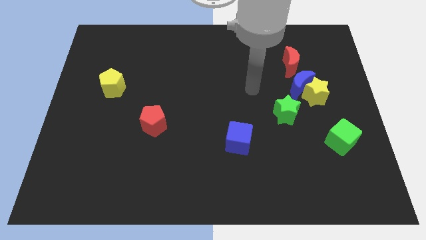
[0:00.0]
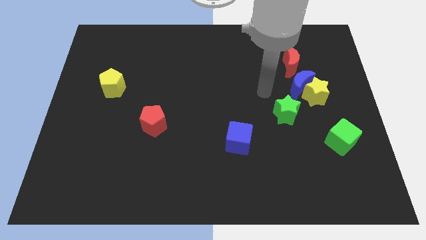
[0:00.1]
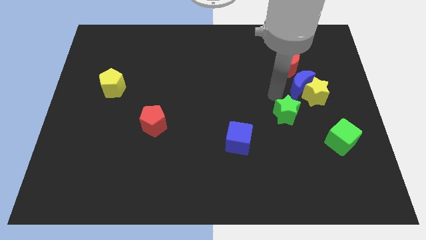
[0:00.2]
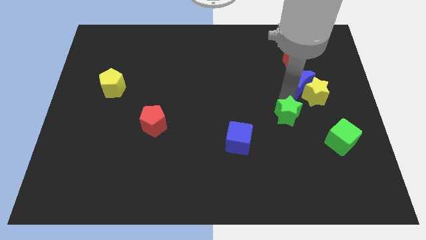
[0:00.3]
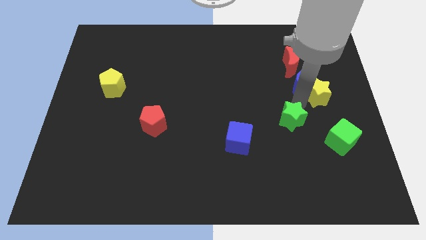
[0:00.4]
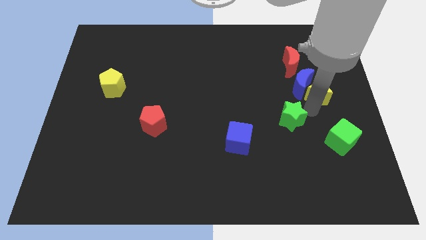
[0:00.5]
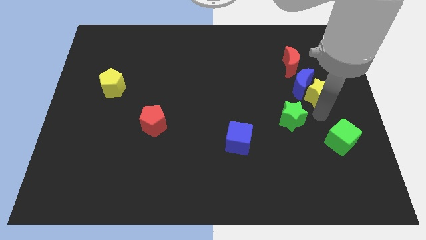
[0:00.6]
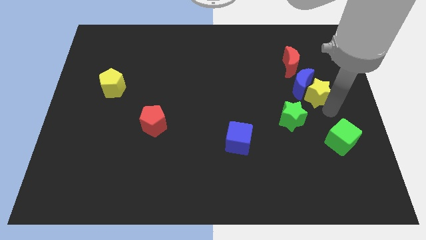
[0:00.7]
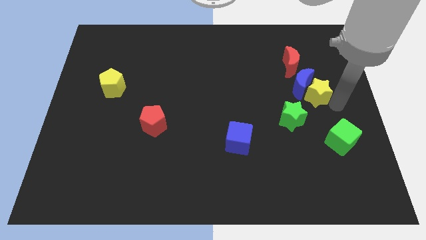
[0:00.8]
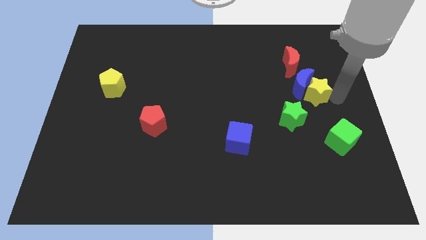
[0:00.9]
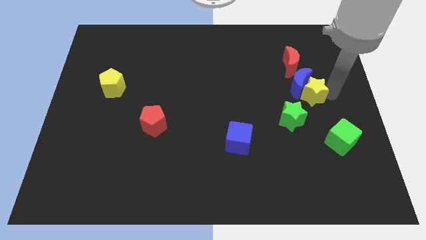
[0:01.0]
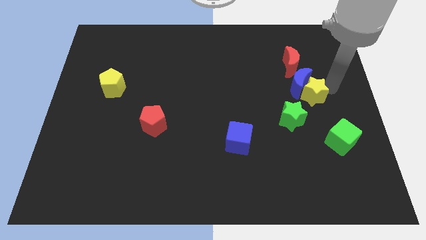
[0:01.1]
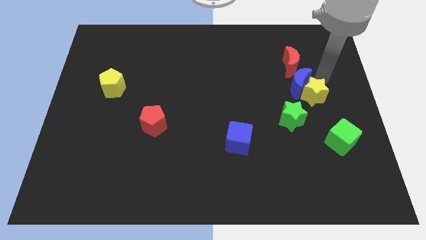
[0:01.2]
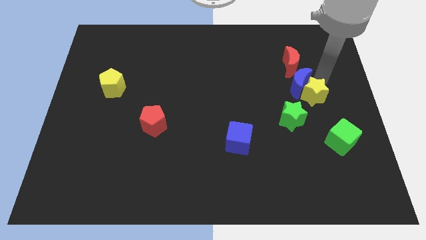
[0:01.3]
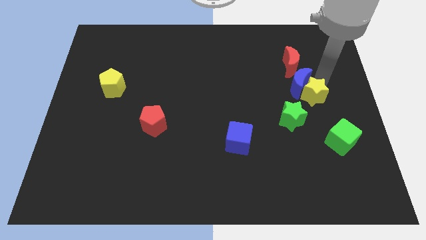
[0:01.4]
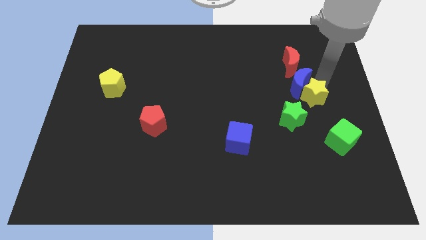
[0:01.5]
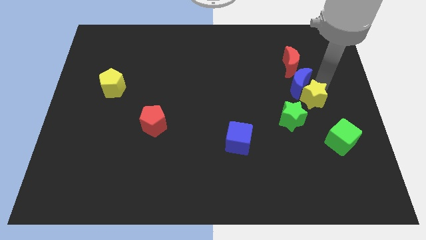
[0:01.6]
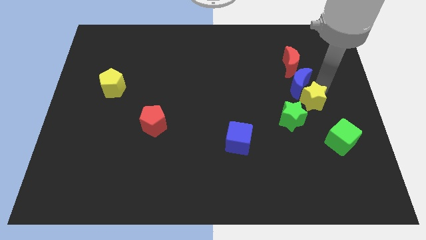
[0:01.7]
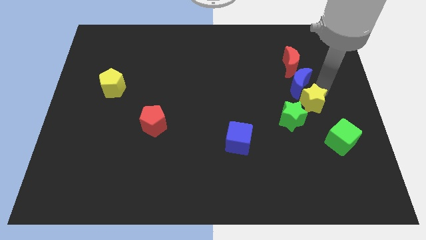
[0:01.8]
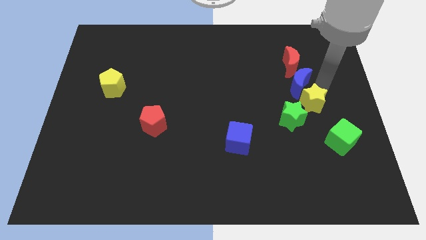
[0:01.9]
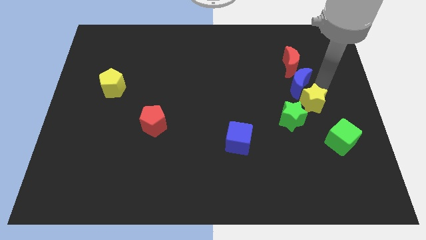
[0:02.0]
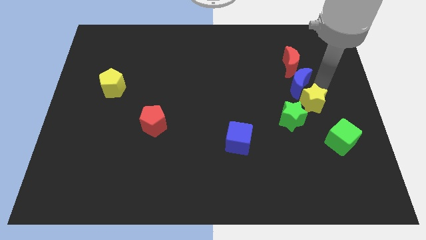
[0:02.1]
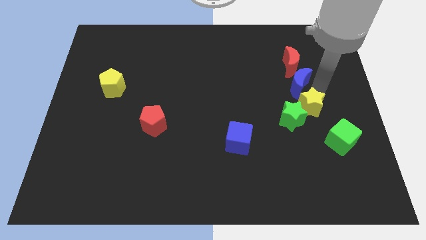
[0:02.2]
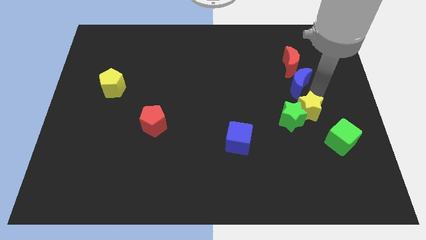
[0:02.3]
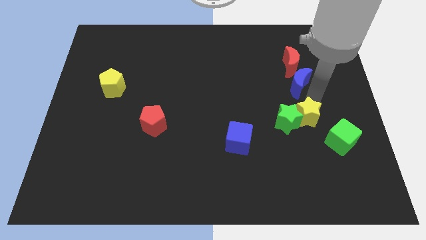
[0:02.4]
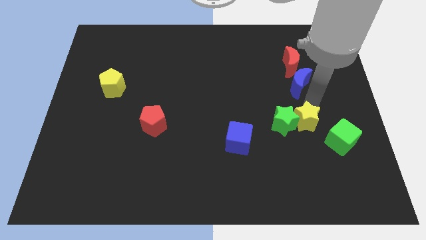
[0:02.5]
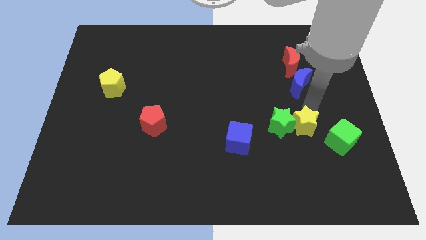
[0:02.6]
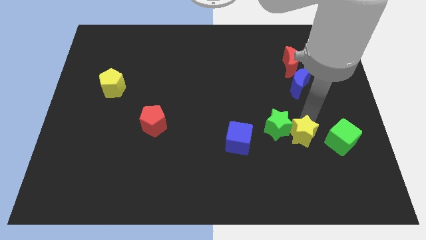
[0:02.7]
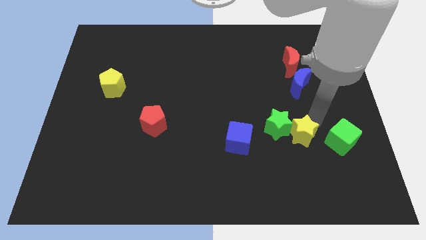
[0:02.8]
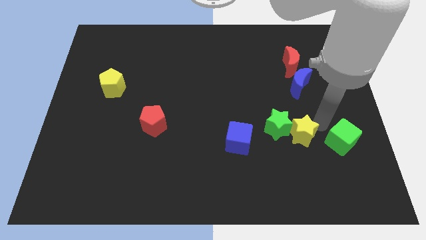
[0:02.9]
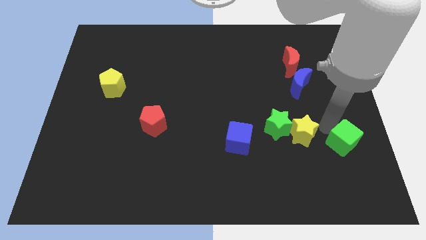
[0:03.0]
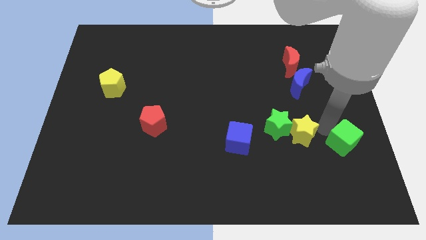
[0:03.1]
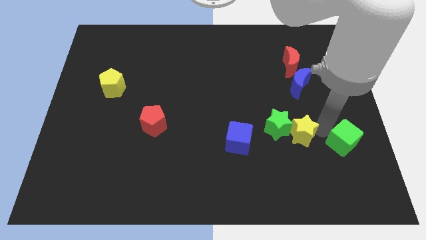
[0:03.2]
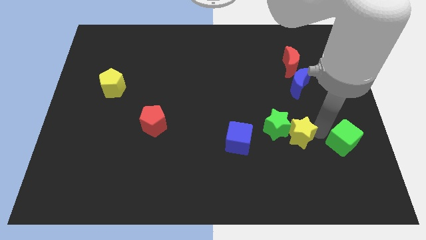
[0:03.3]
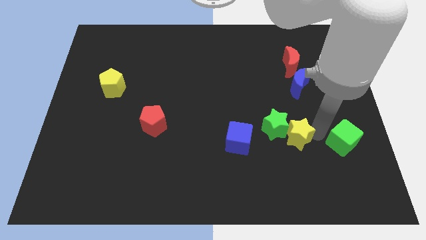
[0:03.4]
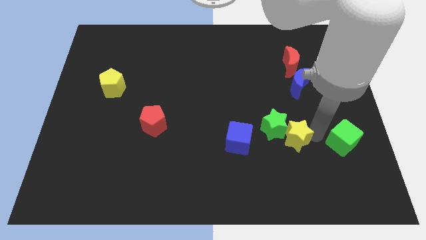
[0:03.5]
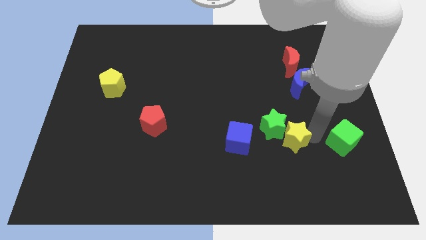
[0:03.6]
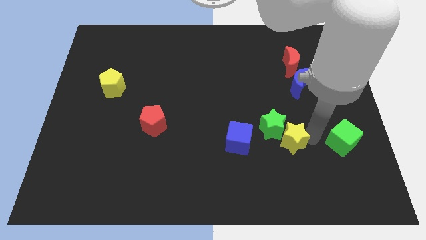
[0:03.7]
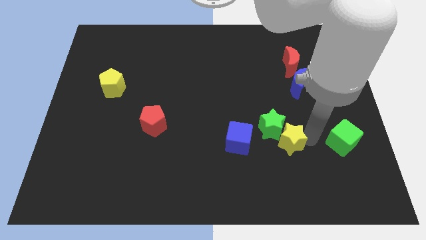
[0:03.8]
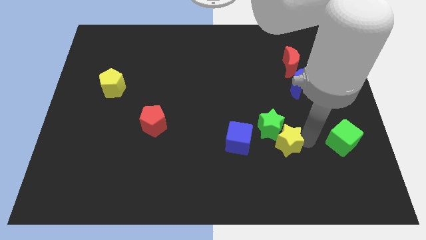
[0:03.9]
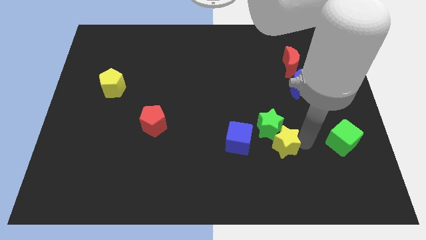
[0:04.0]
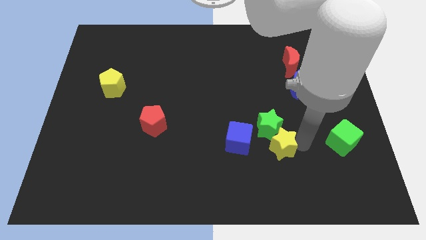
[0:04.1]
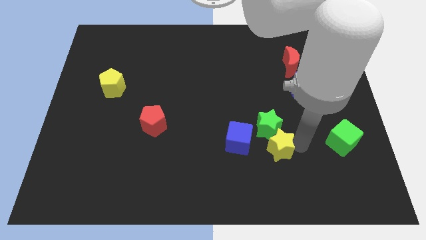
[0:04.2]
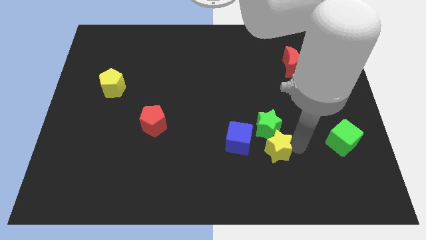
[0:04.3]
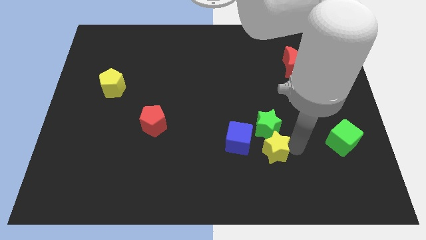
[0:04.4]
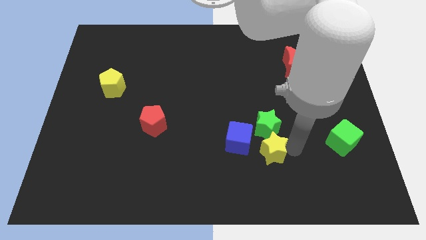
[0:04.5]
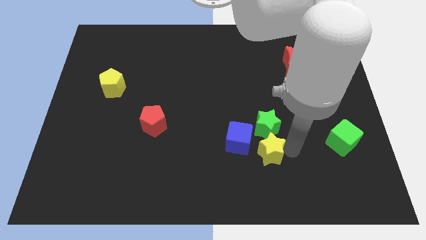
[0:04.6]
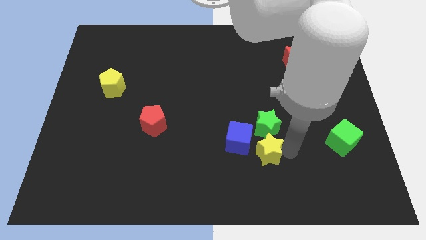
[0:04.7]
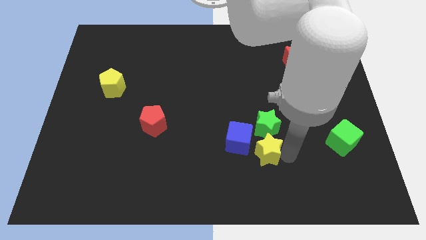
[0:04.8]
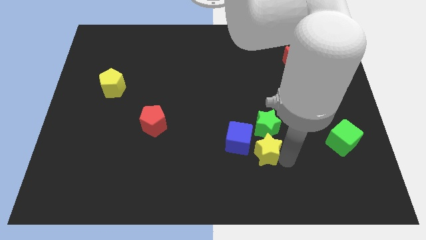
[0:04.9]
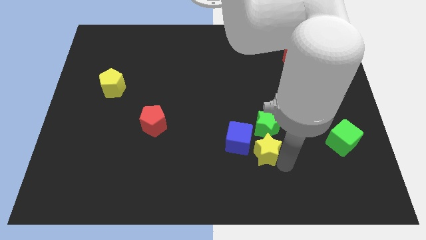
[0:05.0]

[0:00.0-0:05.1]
push the yellow star next to the blue cube

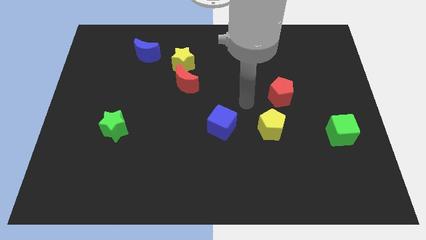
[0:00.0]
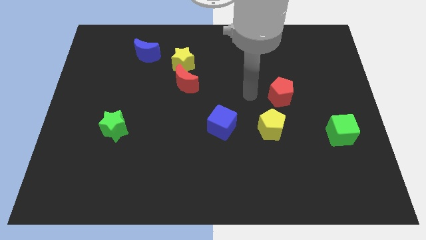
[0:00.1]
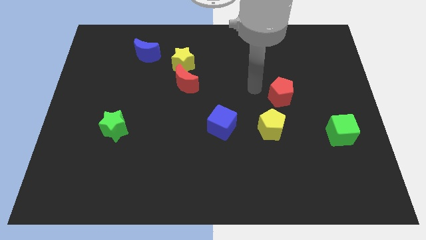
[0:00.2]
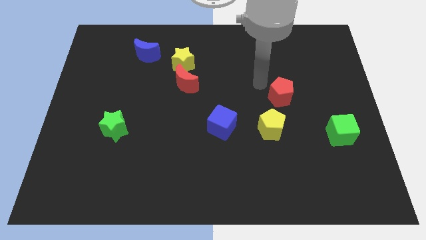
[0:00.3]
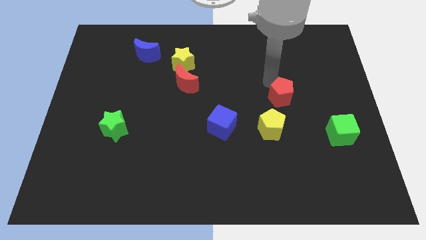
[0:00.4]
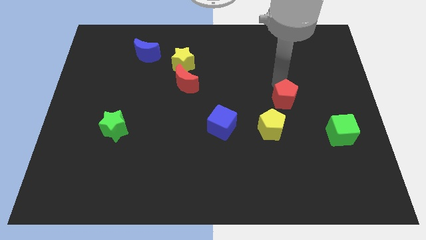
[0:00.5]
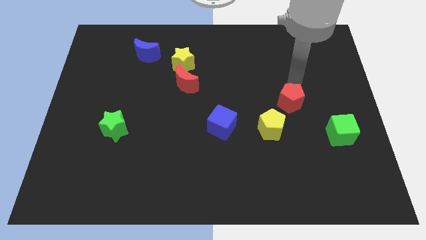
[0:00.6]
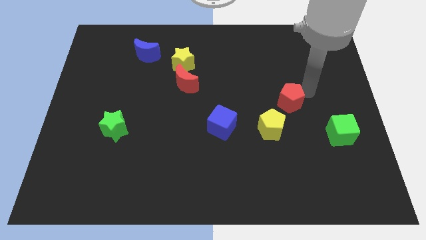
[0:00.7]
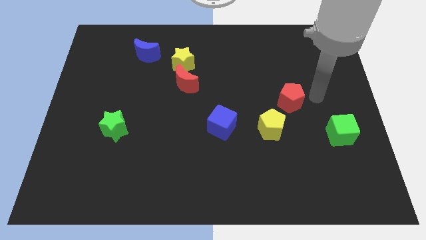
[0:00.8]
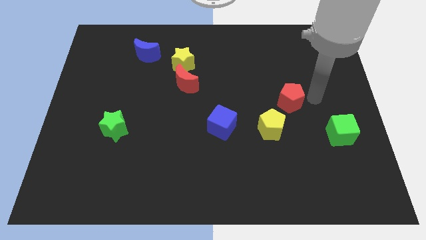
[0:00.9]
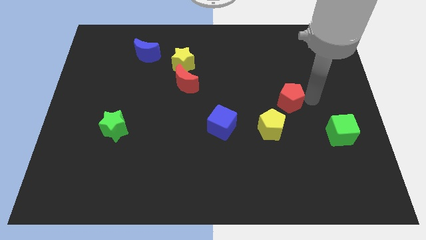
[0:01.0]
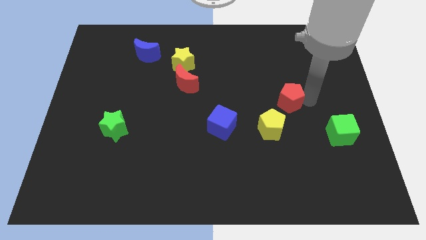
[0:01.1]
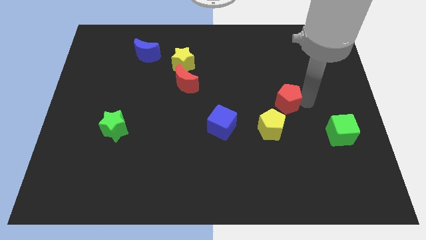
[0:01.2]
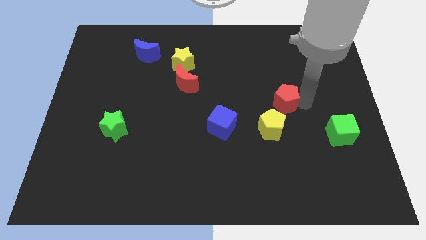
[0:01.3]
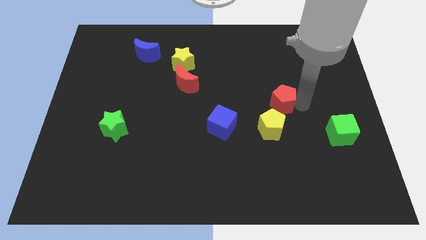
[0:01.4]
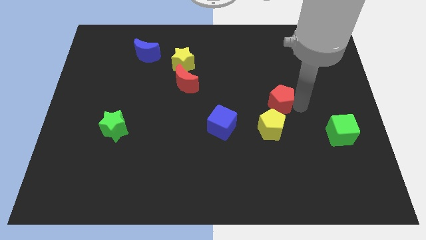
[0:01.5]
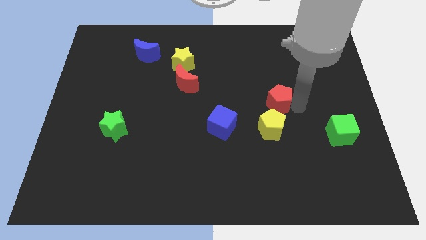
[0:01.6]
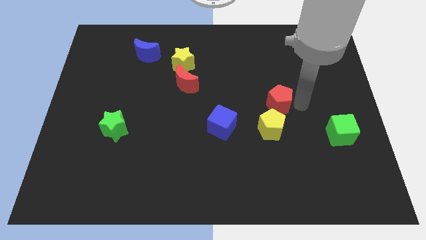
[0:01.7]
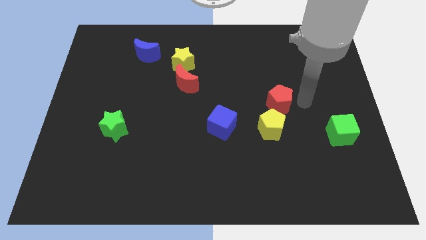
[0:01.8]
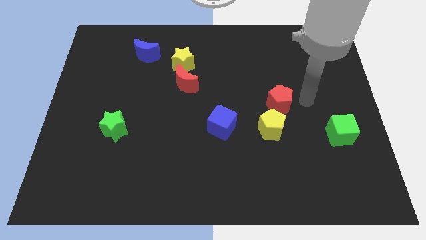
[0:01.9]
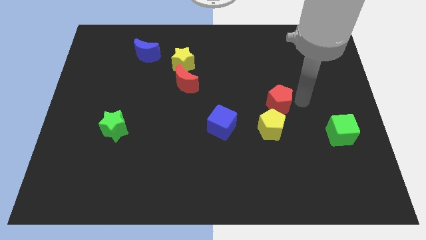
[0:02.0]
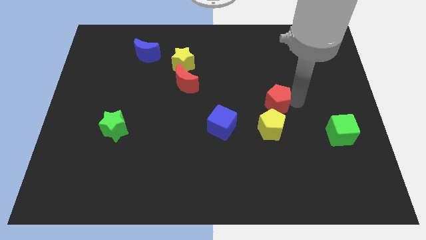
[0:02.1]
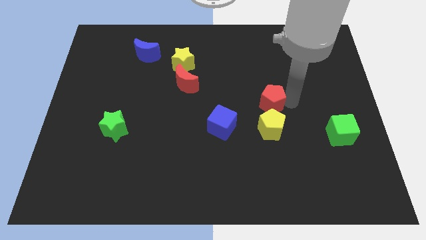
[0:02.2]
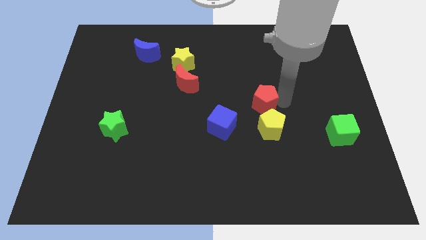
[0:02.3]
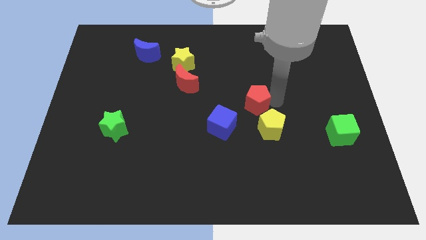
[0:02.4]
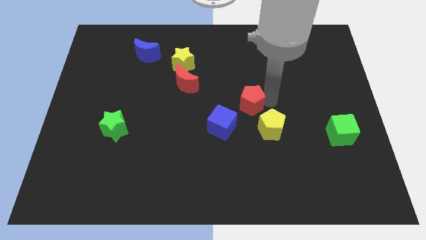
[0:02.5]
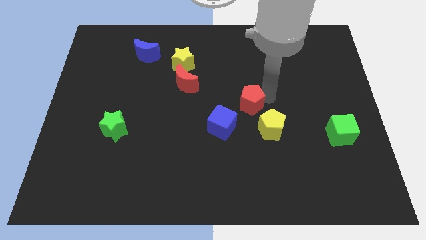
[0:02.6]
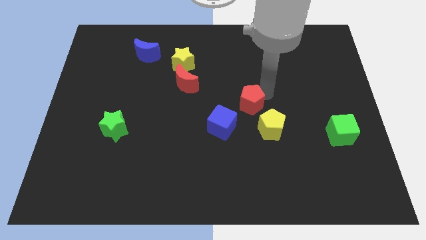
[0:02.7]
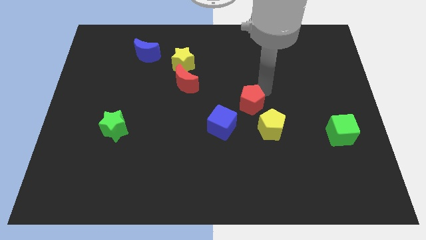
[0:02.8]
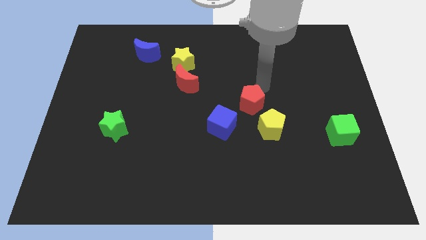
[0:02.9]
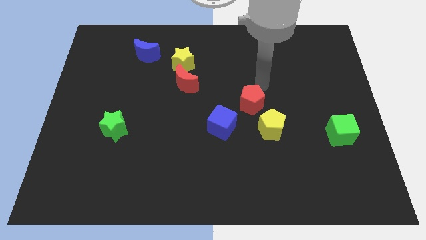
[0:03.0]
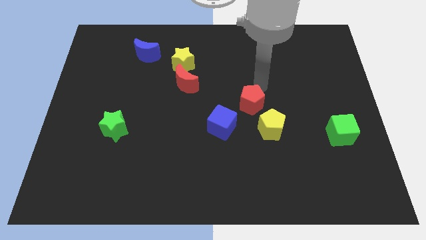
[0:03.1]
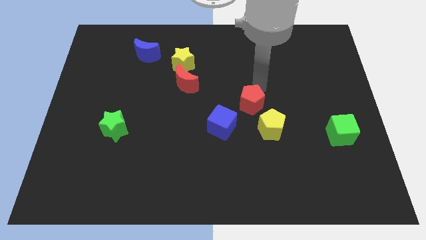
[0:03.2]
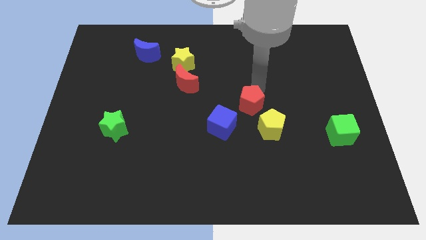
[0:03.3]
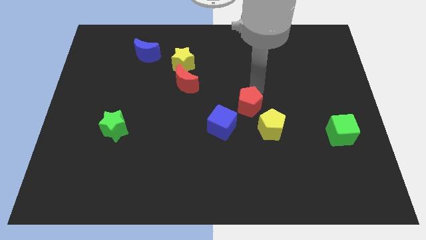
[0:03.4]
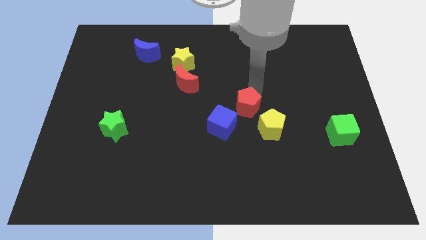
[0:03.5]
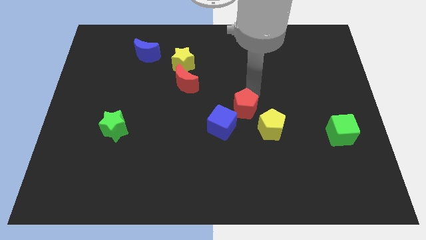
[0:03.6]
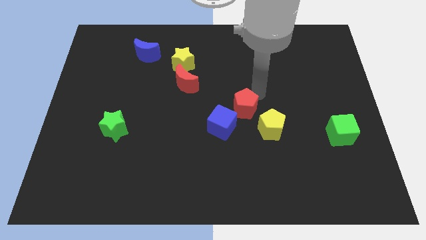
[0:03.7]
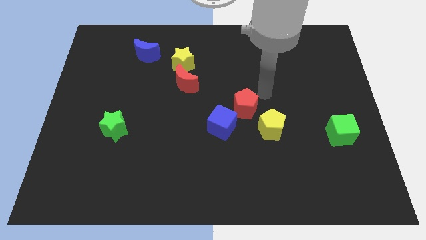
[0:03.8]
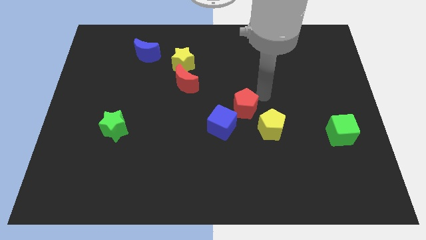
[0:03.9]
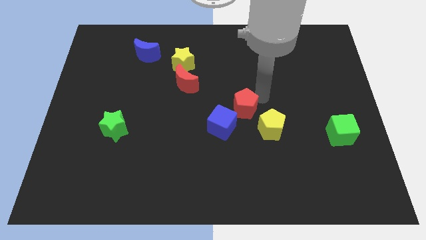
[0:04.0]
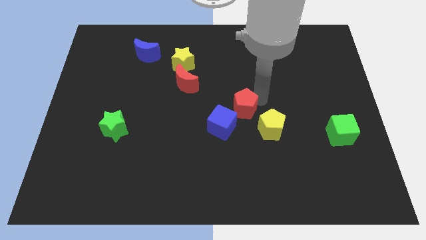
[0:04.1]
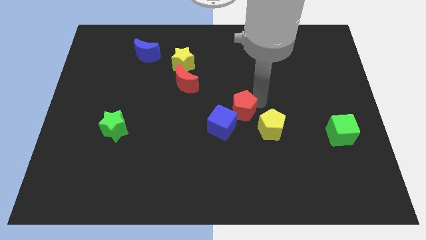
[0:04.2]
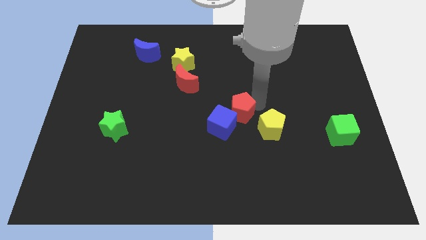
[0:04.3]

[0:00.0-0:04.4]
put the red pentagon next to the blue cube
